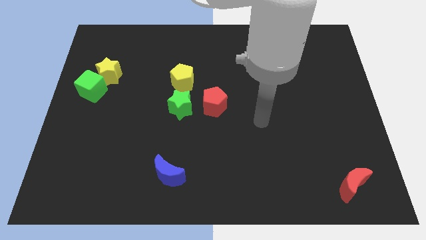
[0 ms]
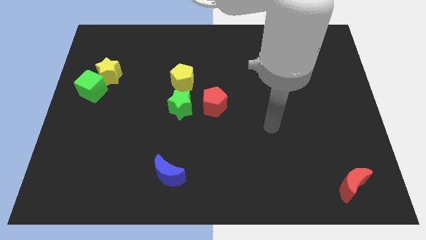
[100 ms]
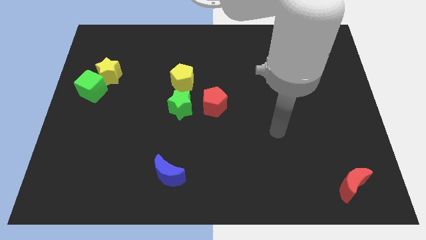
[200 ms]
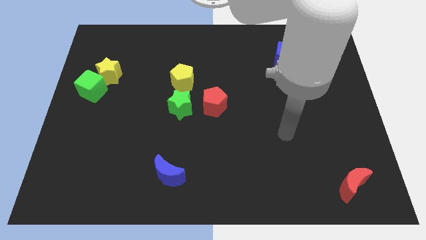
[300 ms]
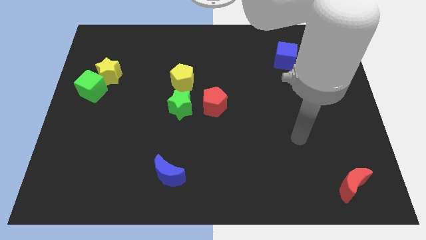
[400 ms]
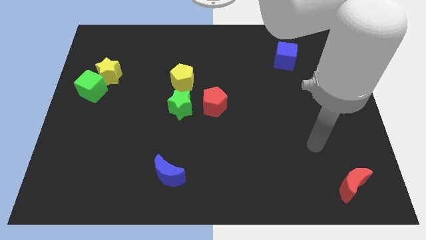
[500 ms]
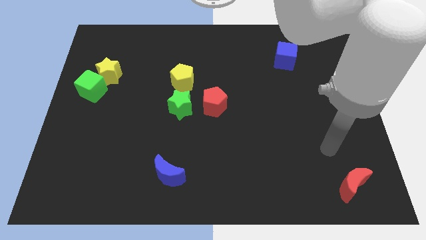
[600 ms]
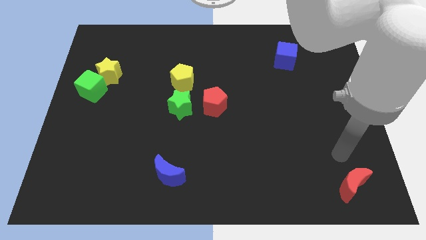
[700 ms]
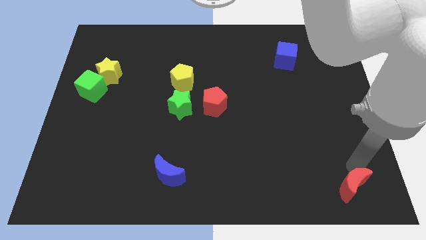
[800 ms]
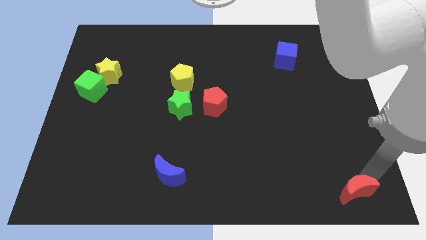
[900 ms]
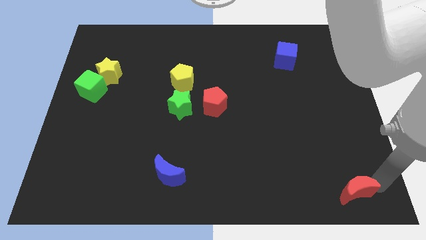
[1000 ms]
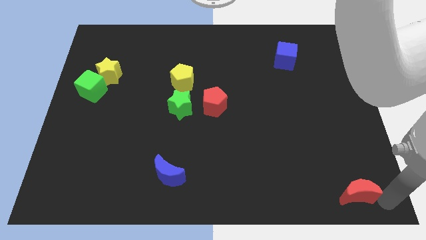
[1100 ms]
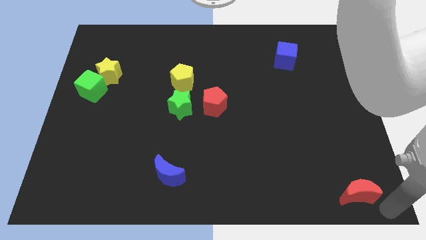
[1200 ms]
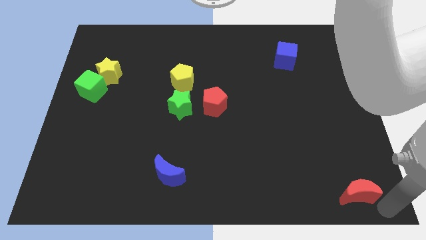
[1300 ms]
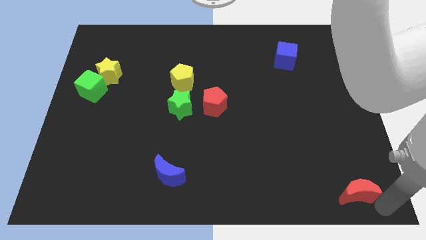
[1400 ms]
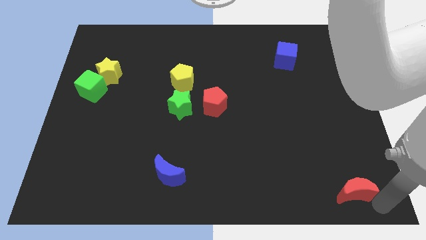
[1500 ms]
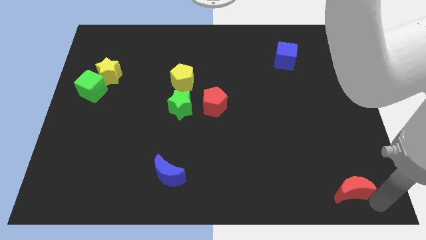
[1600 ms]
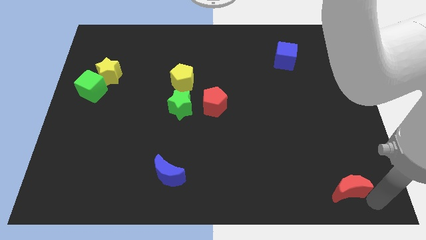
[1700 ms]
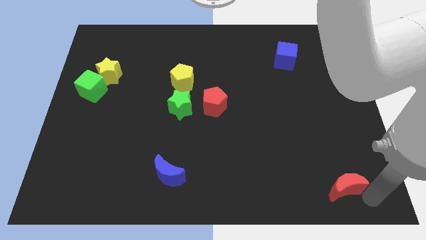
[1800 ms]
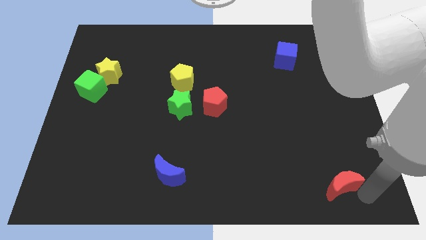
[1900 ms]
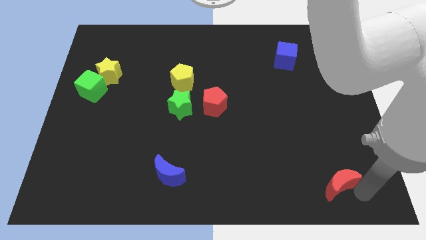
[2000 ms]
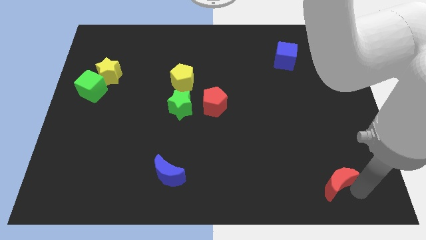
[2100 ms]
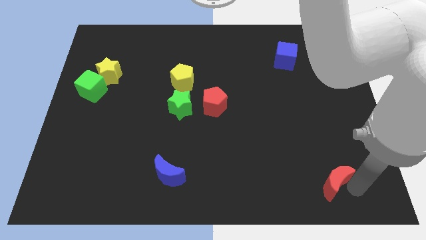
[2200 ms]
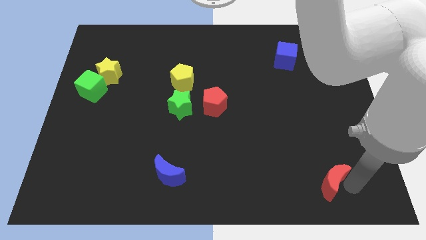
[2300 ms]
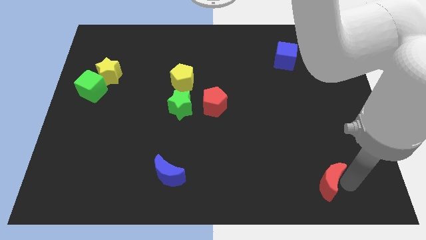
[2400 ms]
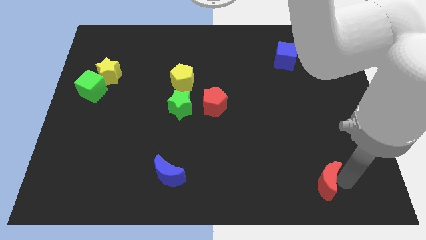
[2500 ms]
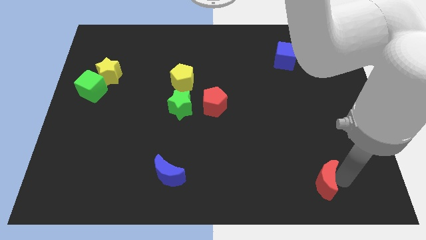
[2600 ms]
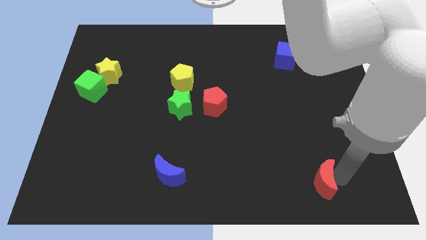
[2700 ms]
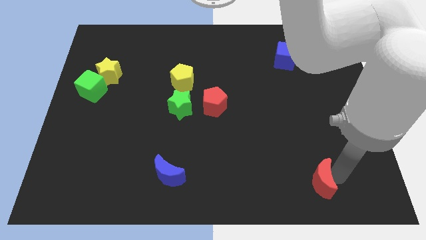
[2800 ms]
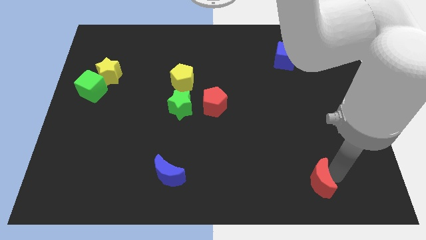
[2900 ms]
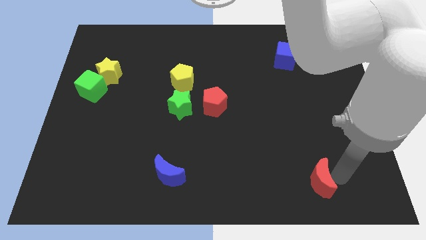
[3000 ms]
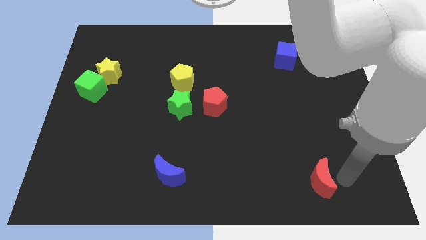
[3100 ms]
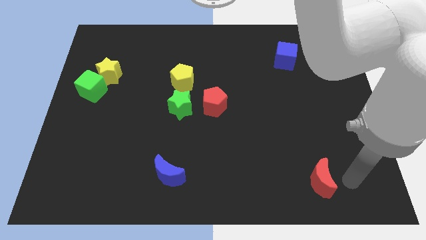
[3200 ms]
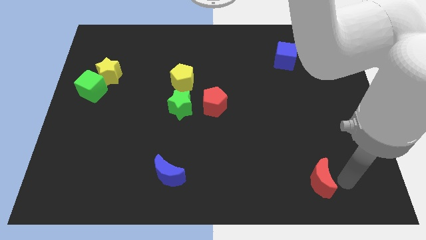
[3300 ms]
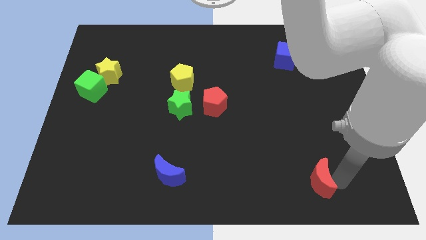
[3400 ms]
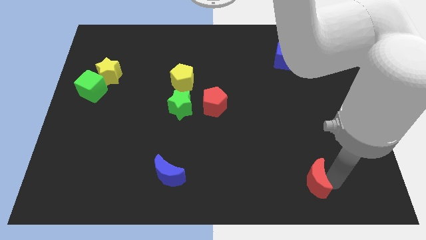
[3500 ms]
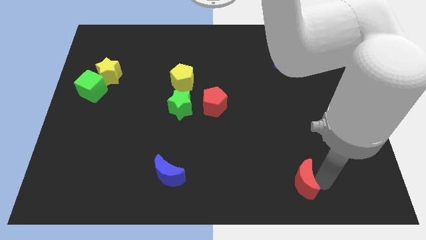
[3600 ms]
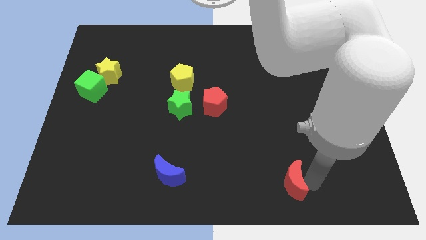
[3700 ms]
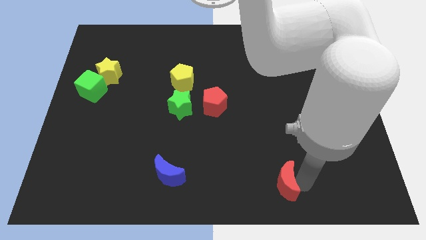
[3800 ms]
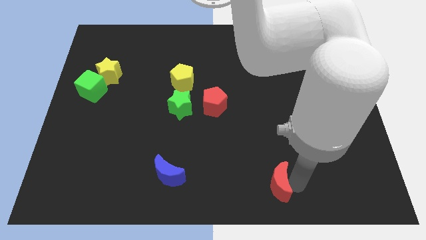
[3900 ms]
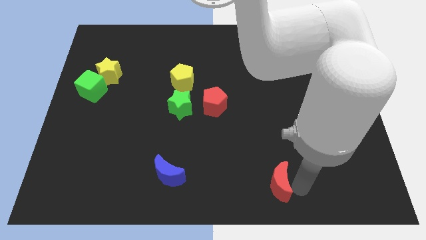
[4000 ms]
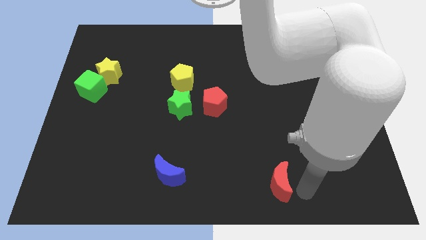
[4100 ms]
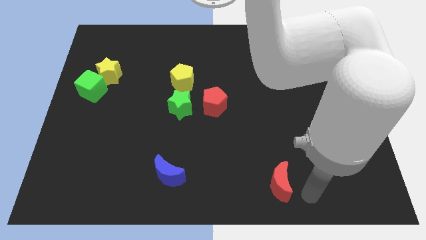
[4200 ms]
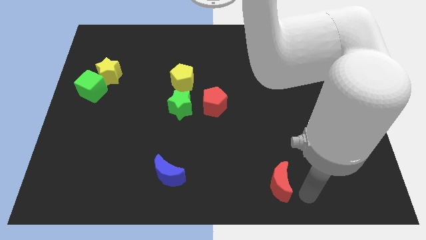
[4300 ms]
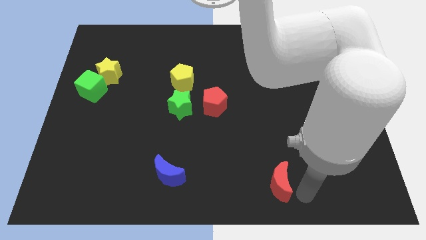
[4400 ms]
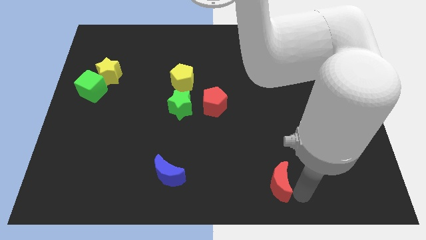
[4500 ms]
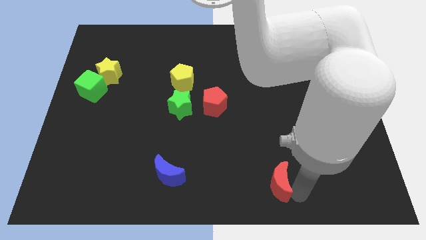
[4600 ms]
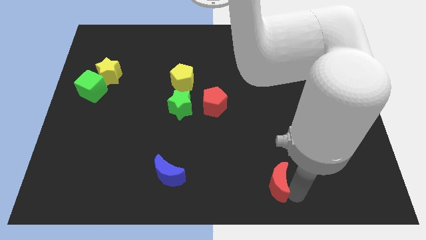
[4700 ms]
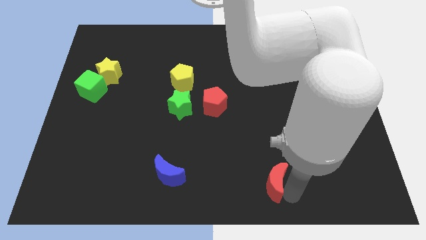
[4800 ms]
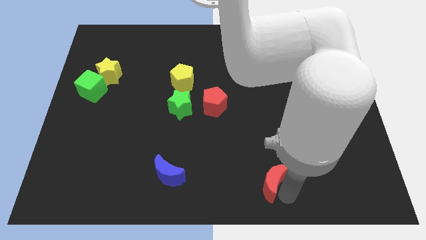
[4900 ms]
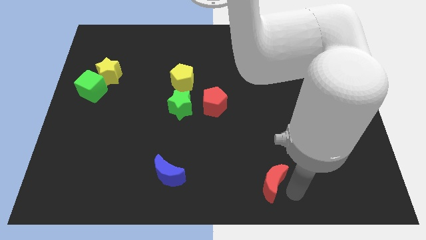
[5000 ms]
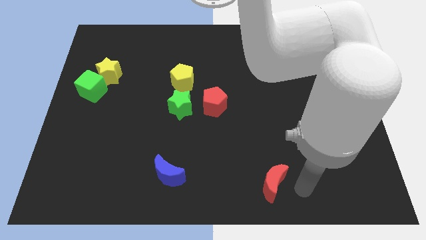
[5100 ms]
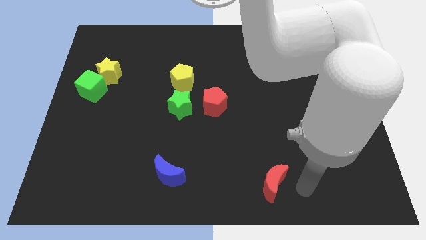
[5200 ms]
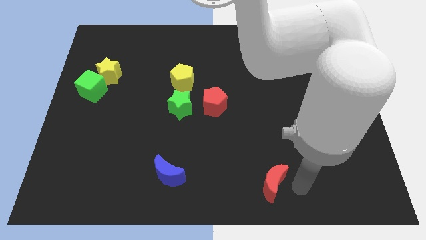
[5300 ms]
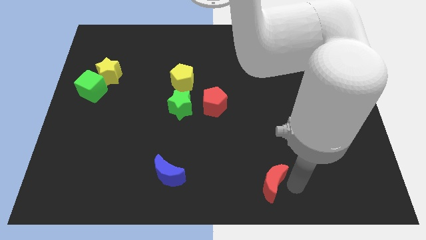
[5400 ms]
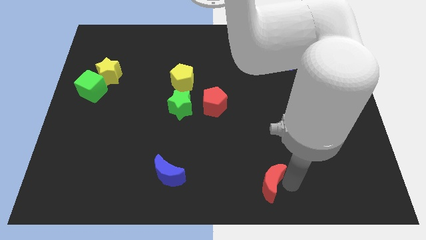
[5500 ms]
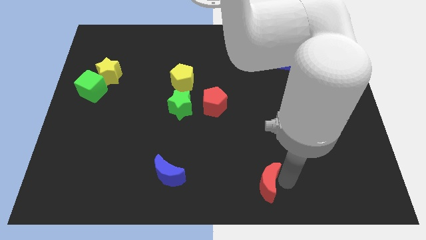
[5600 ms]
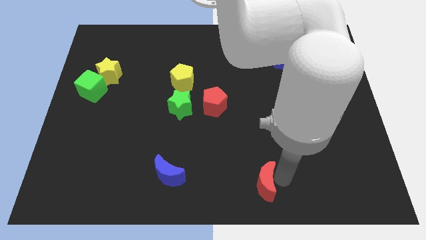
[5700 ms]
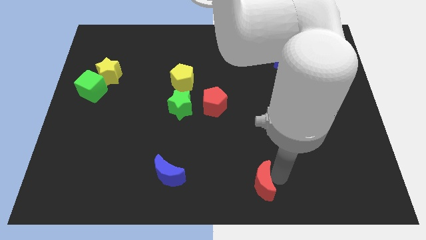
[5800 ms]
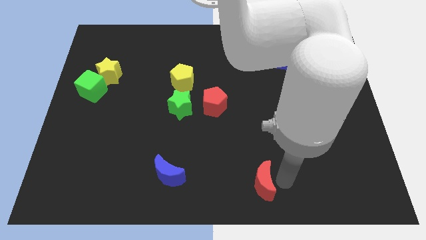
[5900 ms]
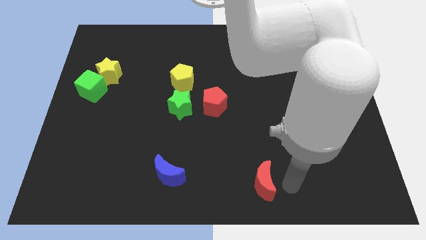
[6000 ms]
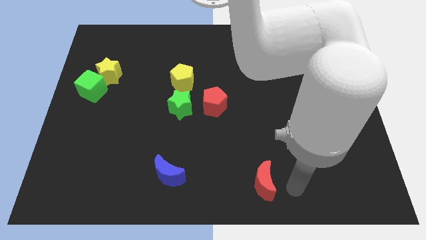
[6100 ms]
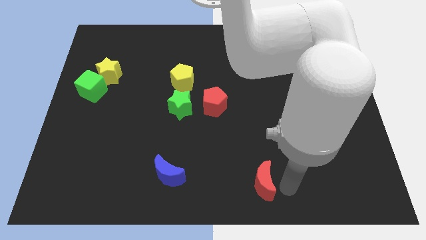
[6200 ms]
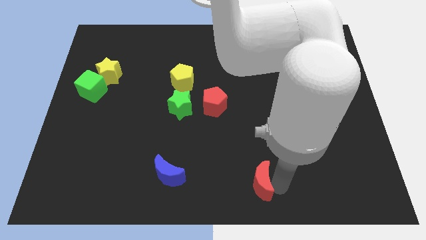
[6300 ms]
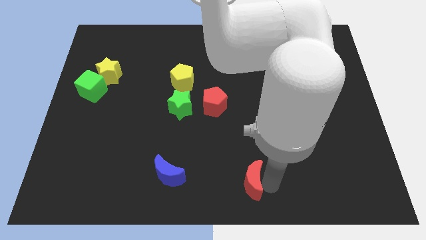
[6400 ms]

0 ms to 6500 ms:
slide the red moon left

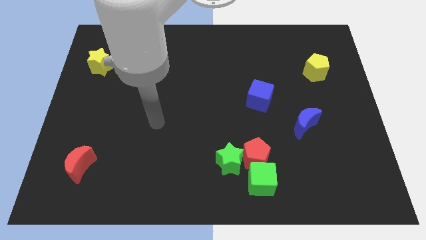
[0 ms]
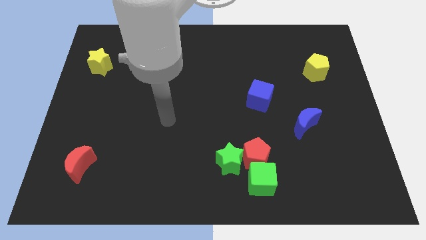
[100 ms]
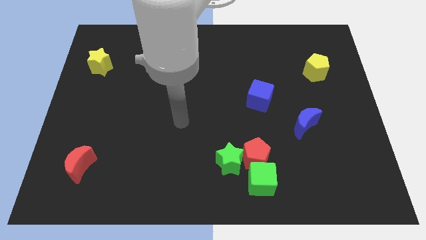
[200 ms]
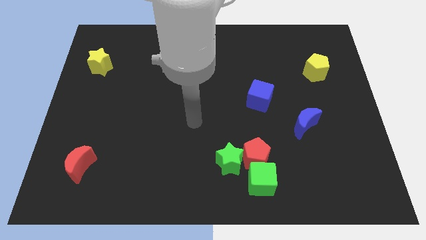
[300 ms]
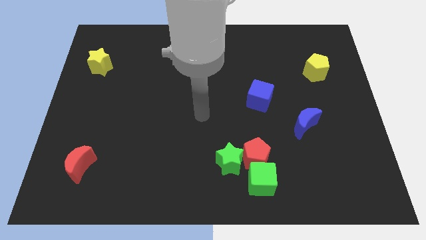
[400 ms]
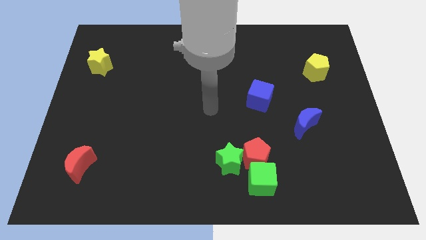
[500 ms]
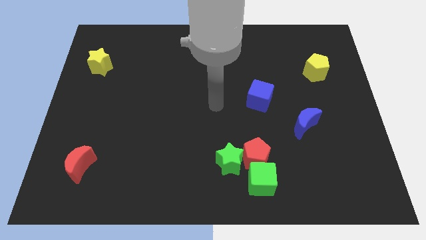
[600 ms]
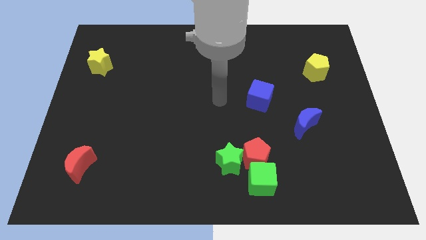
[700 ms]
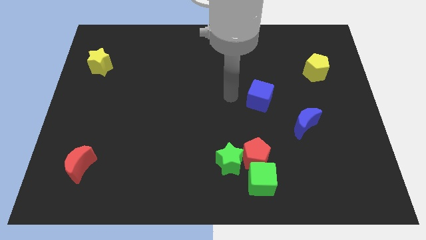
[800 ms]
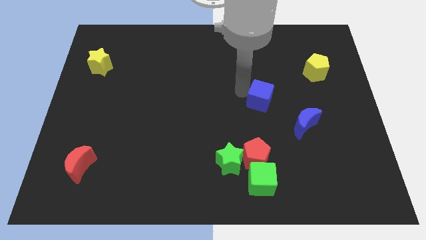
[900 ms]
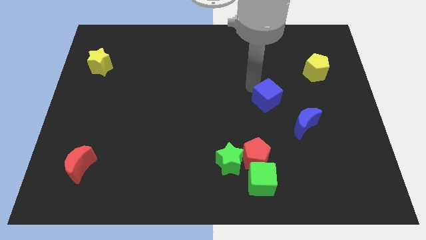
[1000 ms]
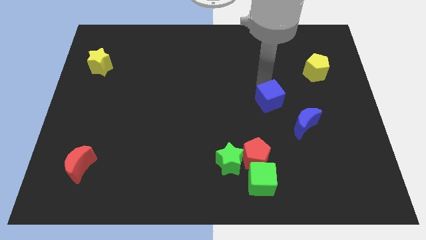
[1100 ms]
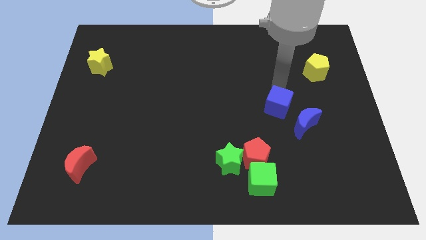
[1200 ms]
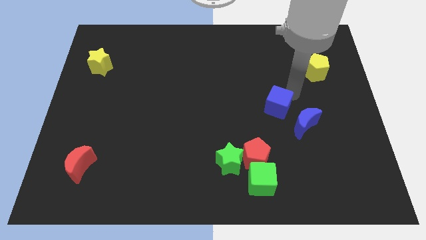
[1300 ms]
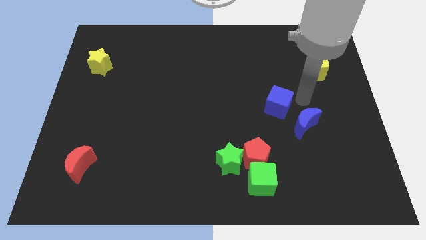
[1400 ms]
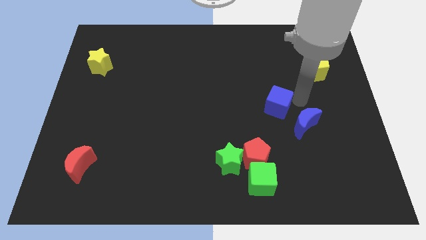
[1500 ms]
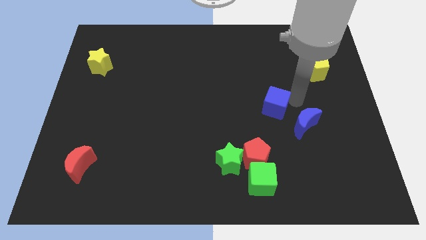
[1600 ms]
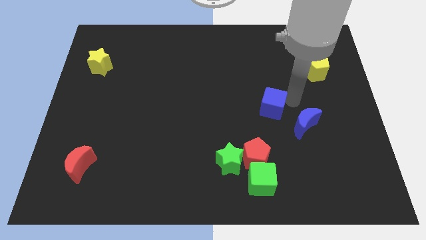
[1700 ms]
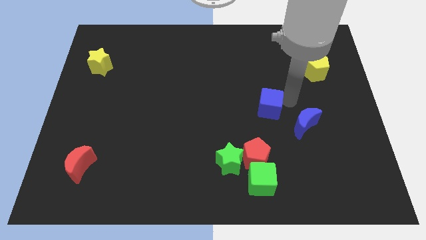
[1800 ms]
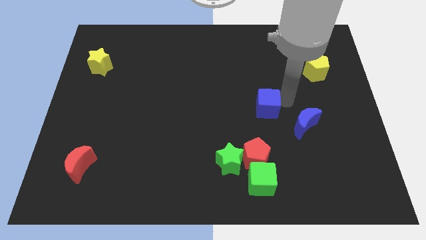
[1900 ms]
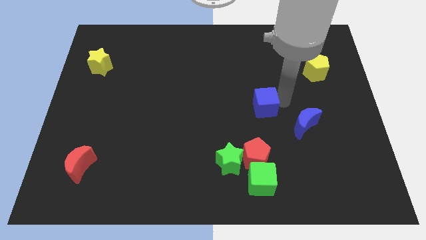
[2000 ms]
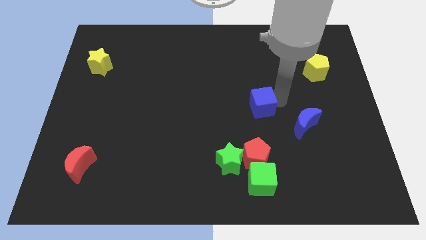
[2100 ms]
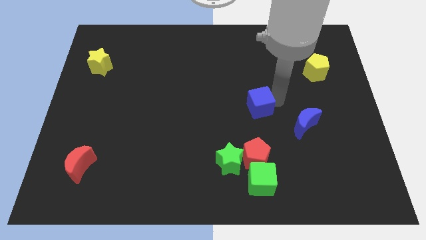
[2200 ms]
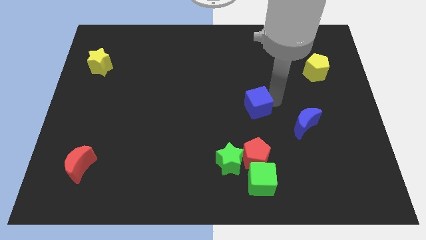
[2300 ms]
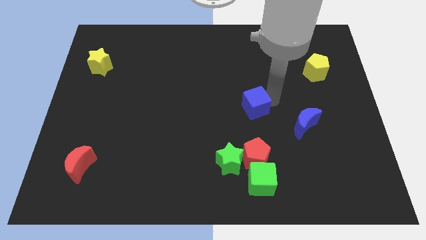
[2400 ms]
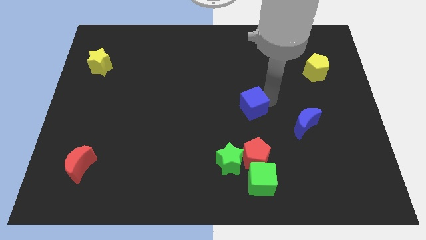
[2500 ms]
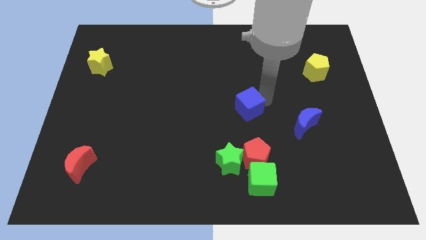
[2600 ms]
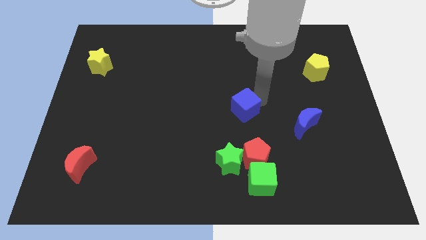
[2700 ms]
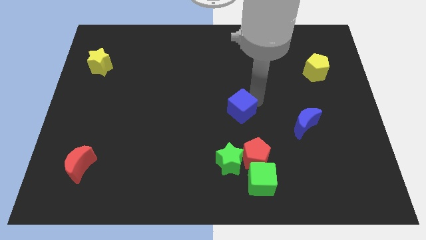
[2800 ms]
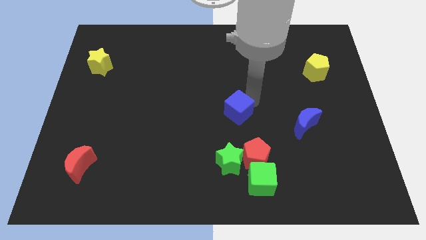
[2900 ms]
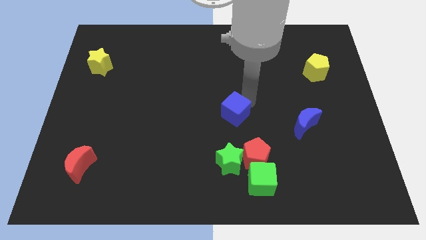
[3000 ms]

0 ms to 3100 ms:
push the blue cube slightly downwards and then left
